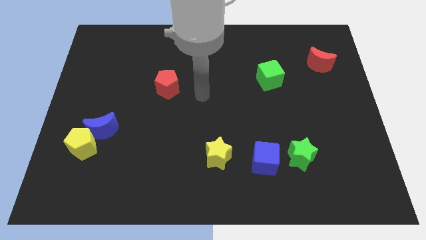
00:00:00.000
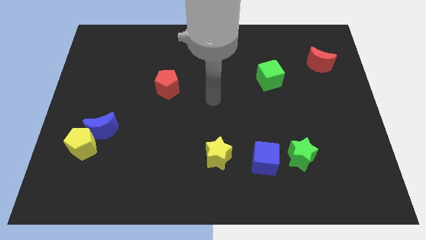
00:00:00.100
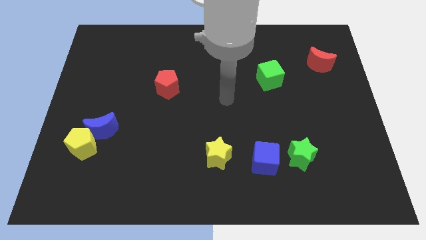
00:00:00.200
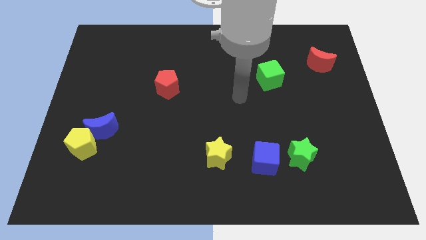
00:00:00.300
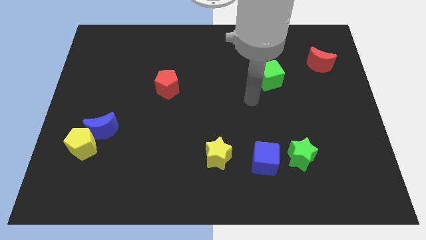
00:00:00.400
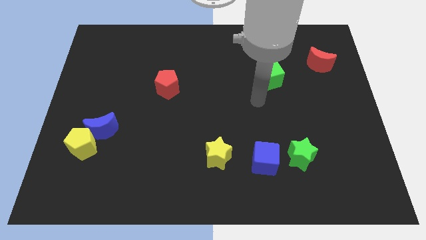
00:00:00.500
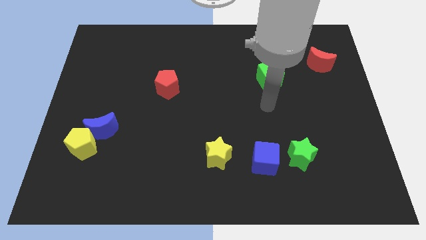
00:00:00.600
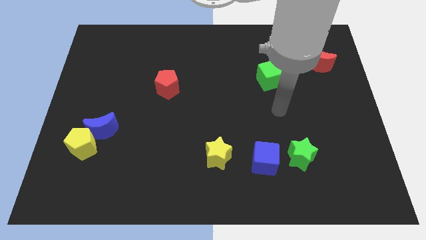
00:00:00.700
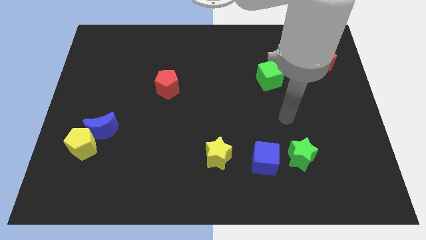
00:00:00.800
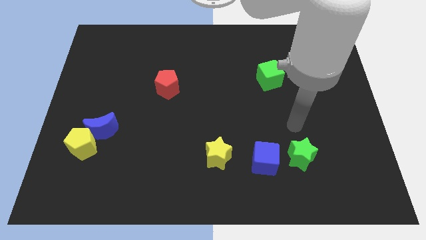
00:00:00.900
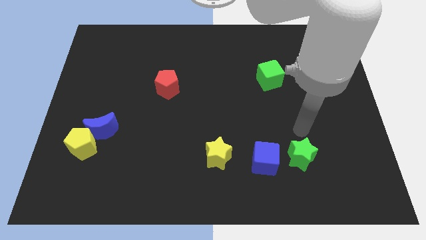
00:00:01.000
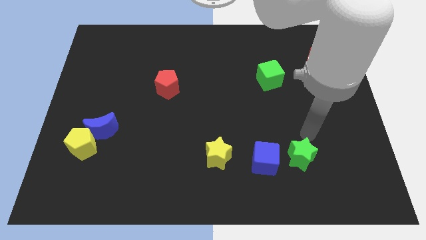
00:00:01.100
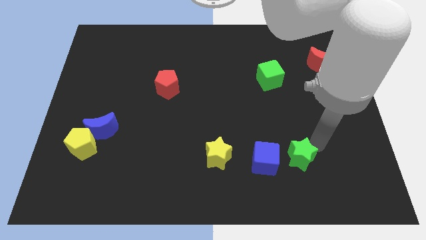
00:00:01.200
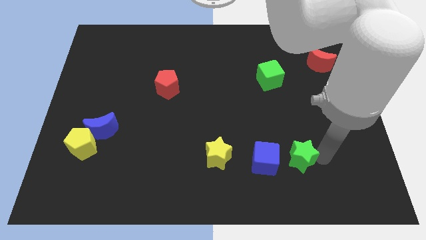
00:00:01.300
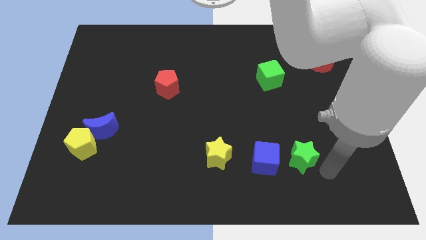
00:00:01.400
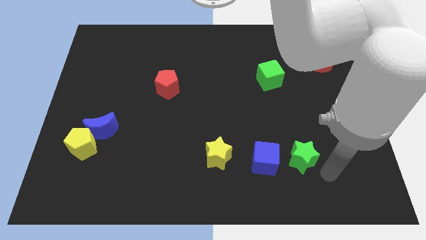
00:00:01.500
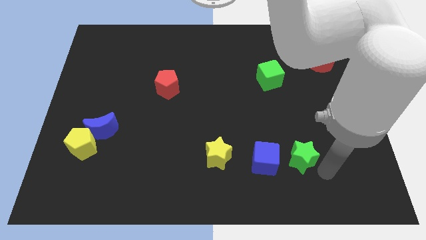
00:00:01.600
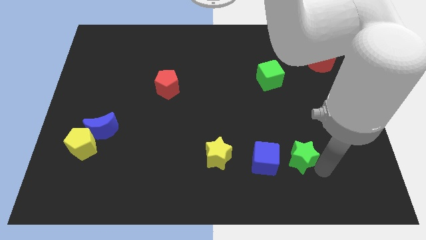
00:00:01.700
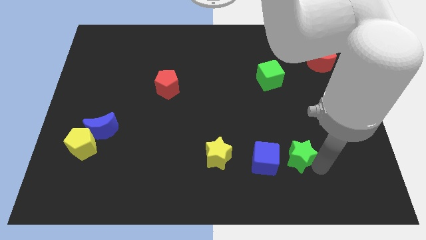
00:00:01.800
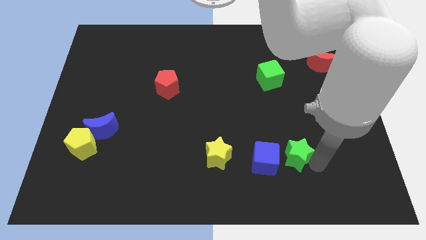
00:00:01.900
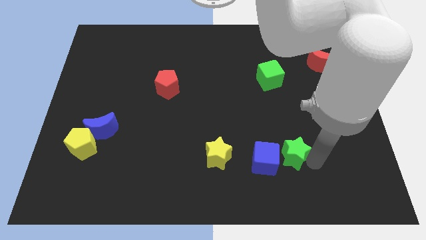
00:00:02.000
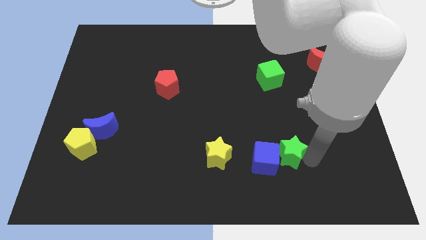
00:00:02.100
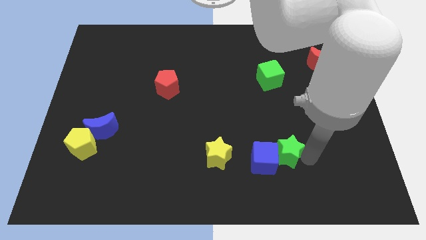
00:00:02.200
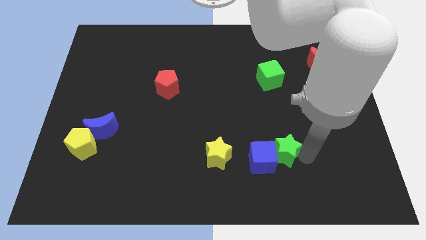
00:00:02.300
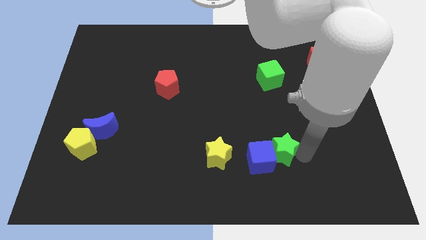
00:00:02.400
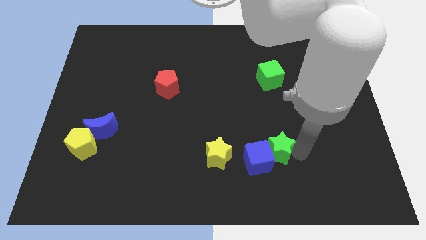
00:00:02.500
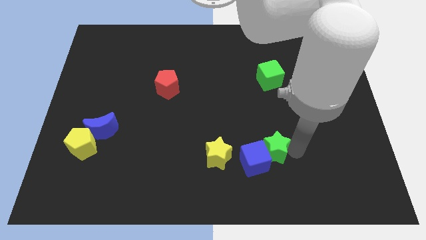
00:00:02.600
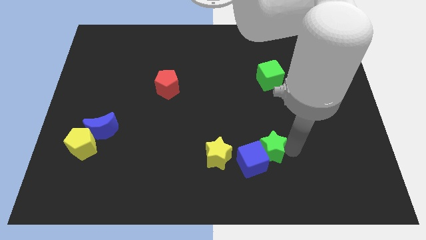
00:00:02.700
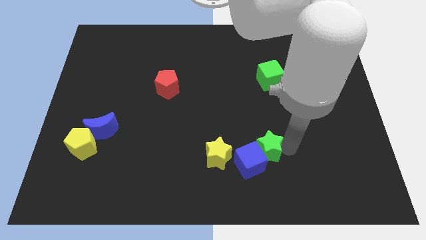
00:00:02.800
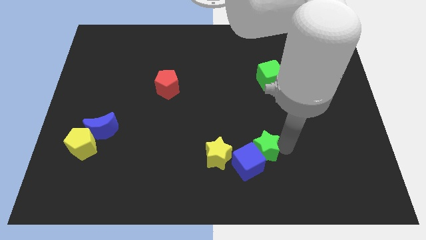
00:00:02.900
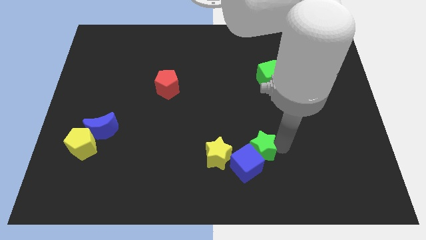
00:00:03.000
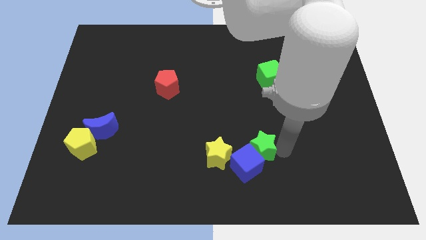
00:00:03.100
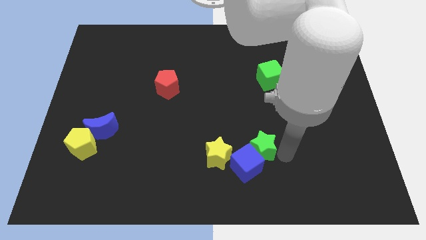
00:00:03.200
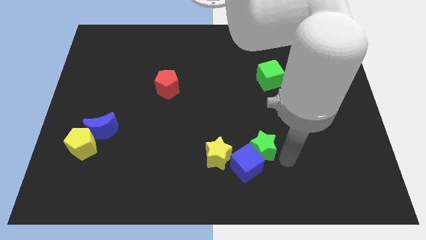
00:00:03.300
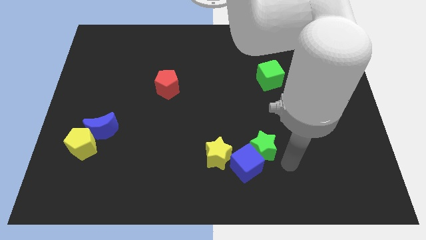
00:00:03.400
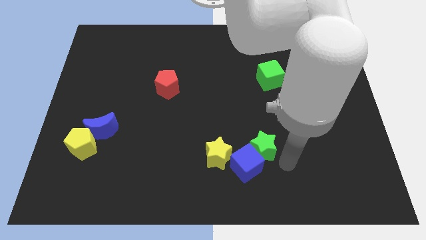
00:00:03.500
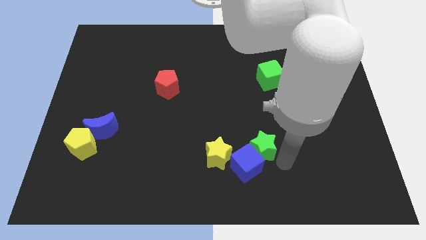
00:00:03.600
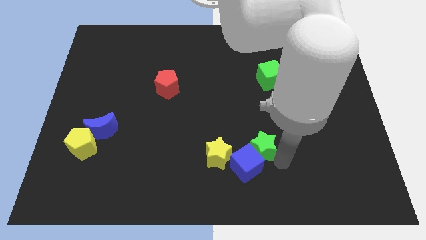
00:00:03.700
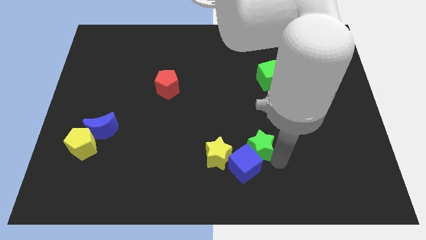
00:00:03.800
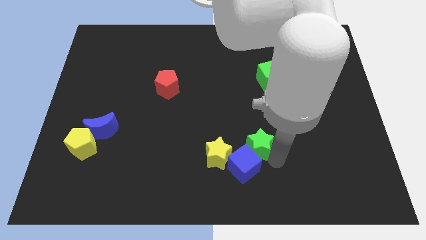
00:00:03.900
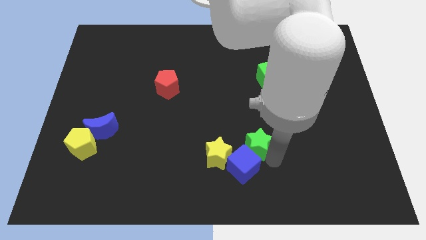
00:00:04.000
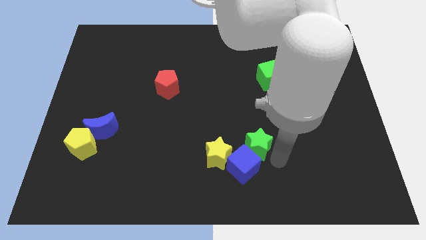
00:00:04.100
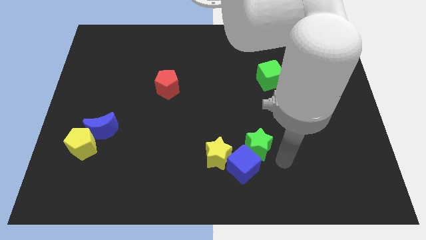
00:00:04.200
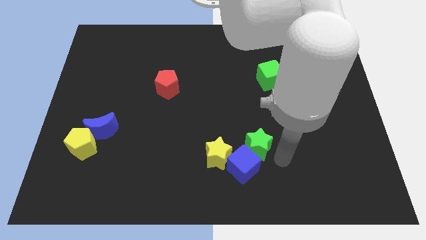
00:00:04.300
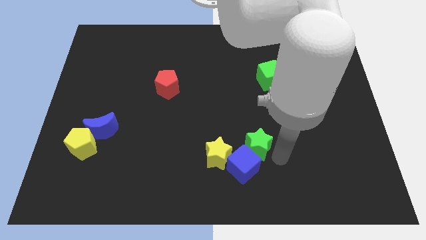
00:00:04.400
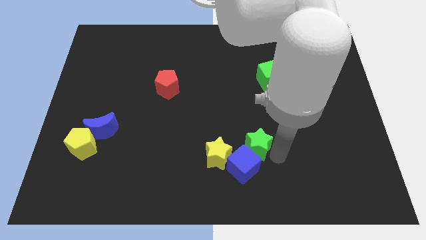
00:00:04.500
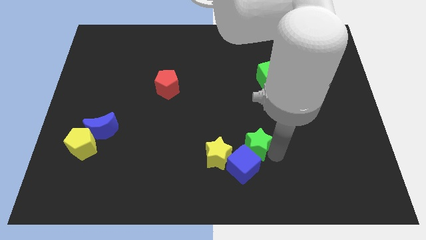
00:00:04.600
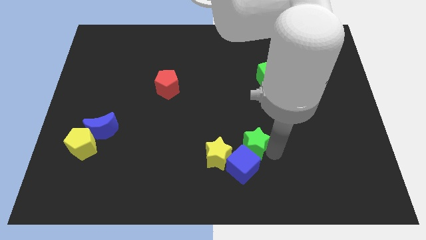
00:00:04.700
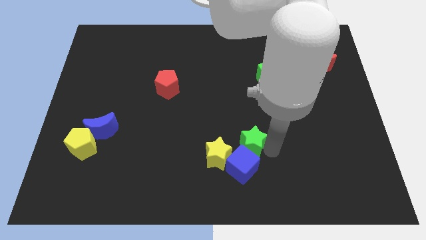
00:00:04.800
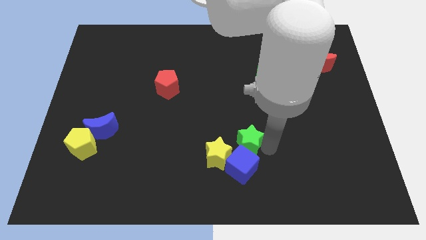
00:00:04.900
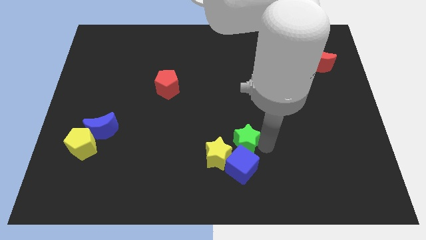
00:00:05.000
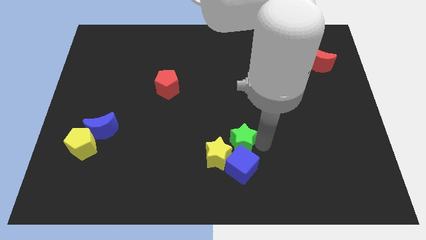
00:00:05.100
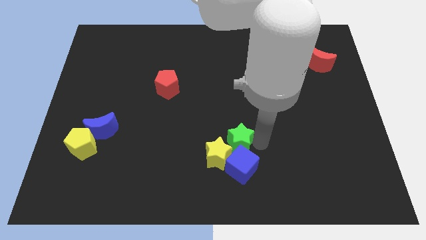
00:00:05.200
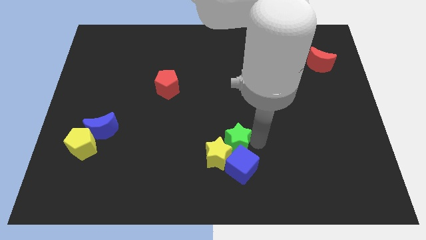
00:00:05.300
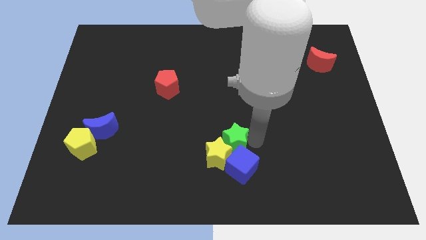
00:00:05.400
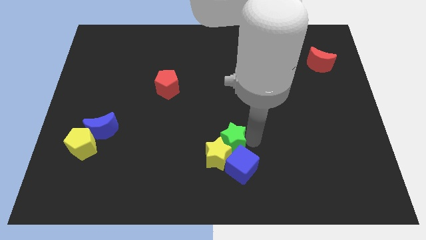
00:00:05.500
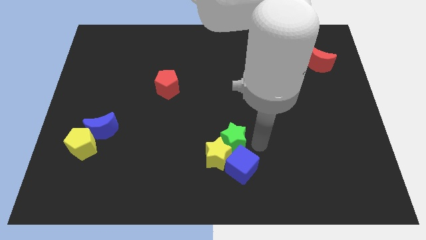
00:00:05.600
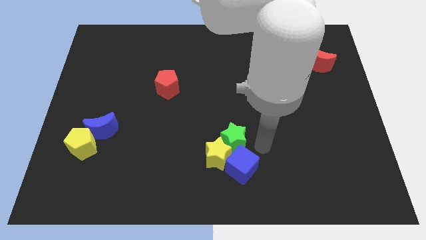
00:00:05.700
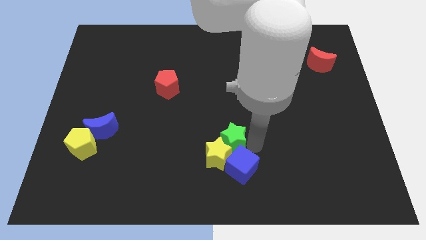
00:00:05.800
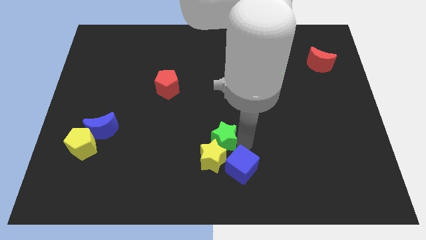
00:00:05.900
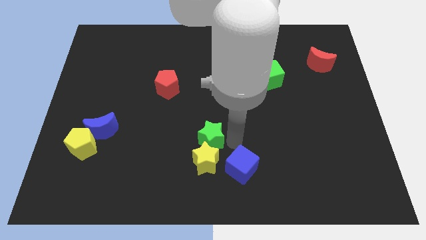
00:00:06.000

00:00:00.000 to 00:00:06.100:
push the green star to the top left side of the yellow star

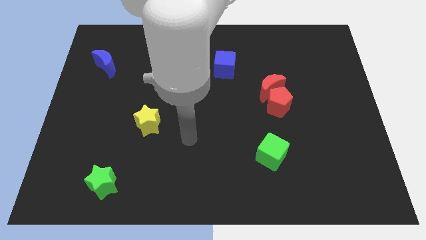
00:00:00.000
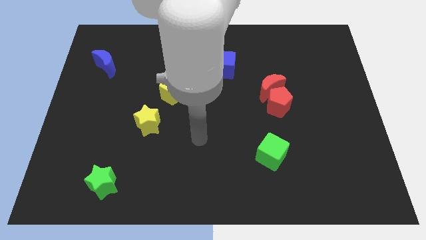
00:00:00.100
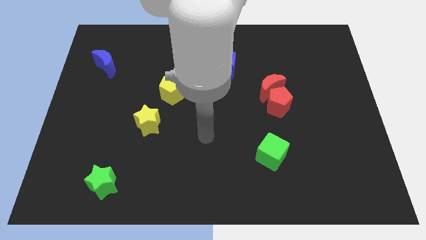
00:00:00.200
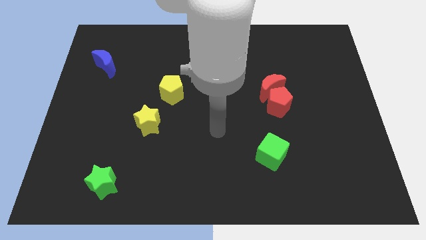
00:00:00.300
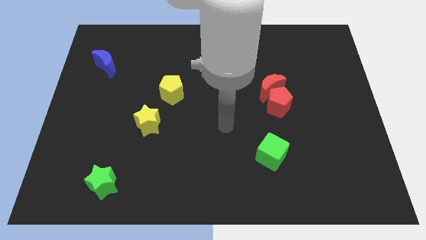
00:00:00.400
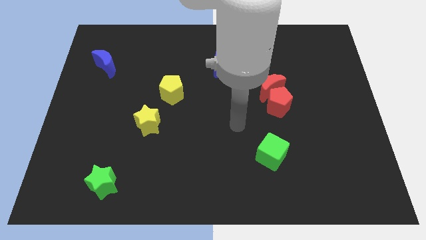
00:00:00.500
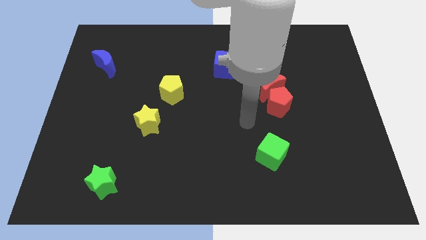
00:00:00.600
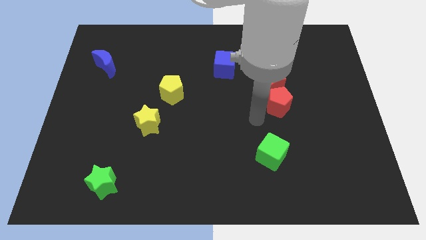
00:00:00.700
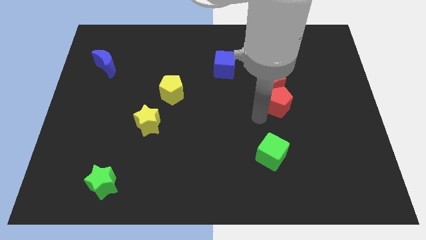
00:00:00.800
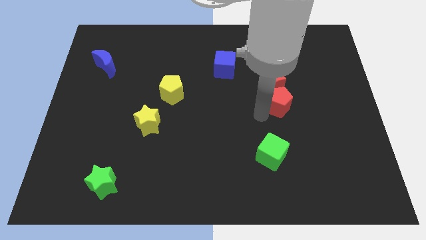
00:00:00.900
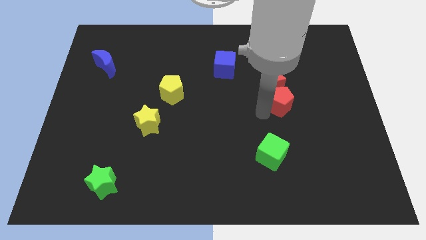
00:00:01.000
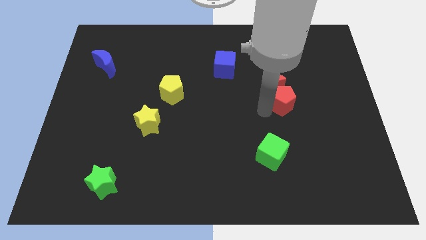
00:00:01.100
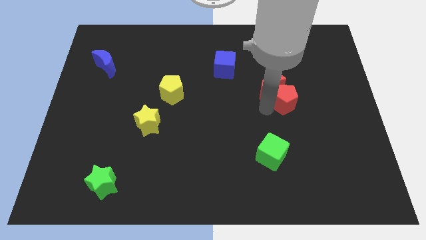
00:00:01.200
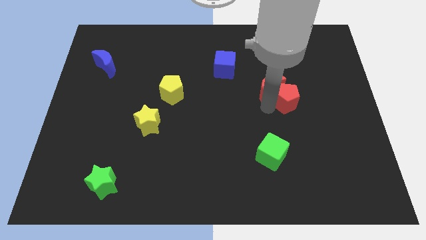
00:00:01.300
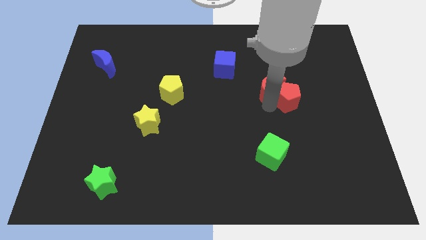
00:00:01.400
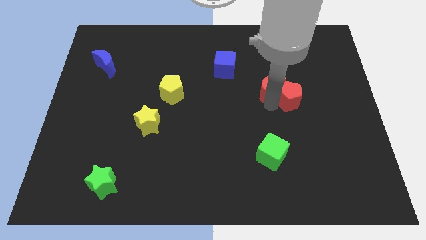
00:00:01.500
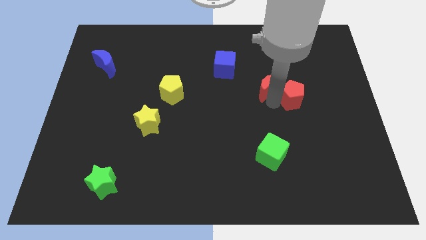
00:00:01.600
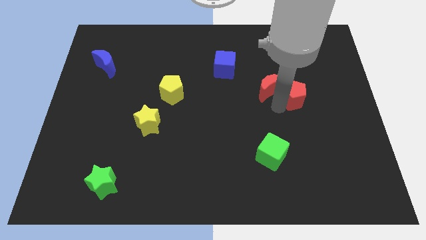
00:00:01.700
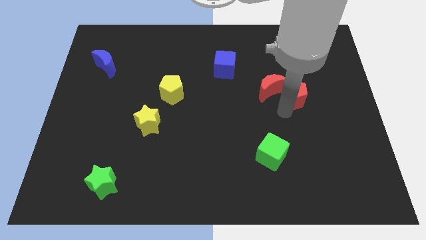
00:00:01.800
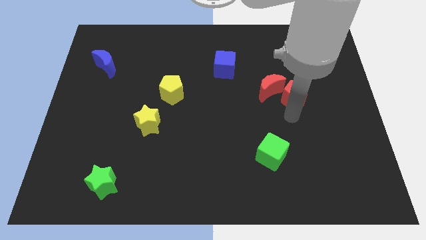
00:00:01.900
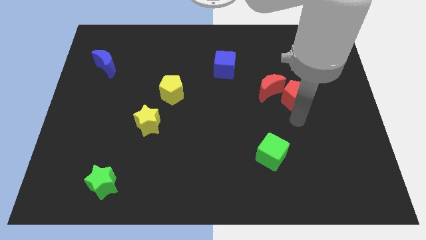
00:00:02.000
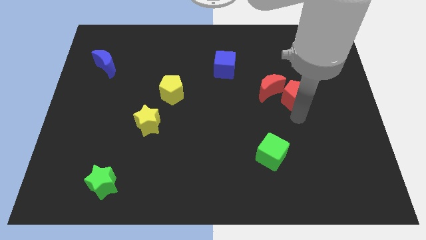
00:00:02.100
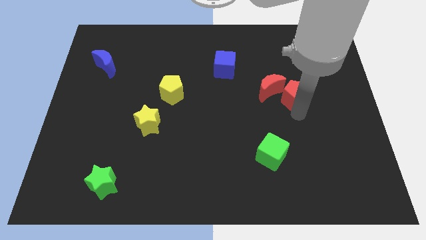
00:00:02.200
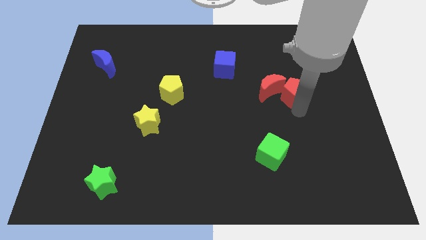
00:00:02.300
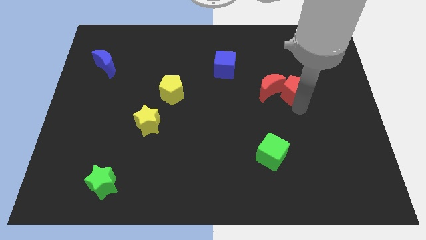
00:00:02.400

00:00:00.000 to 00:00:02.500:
move the red pentagon to the top right of the red moon
